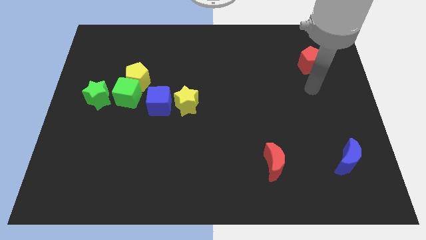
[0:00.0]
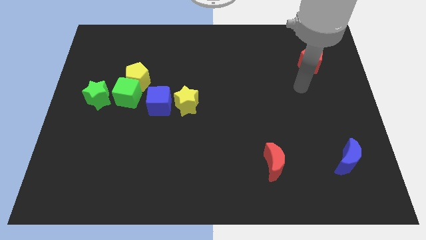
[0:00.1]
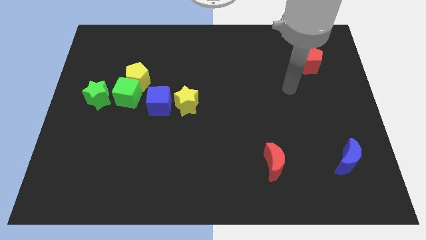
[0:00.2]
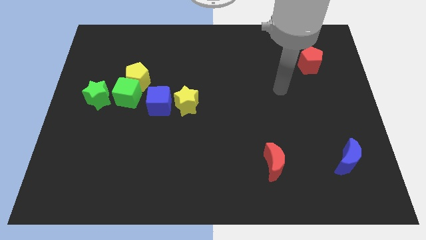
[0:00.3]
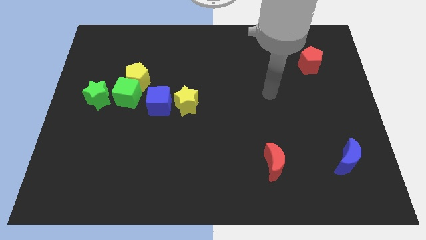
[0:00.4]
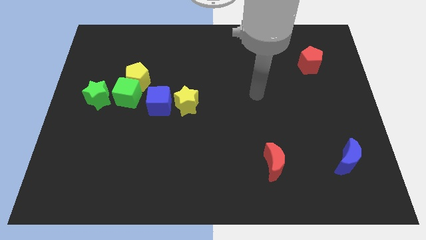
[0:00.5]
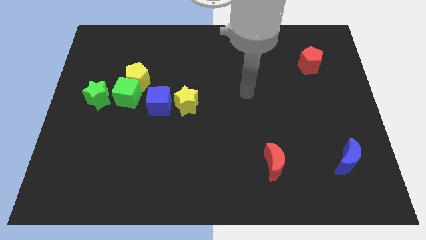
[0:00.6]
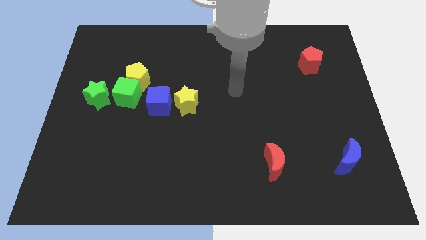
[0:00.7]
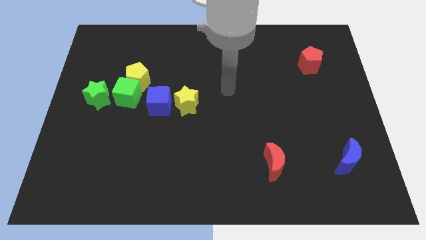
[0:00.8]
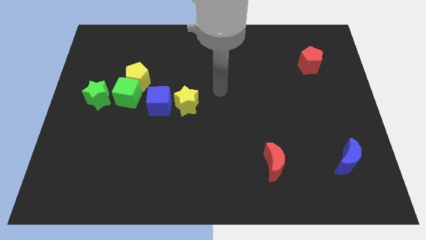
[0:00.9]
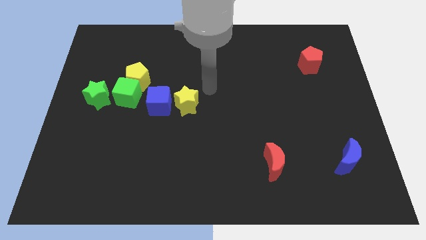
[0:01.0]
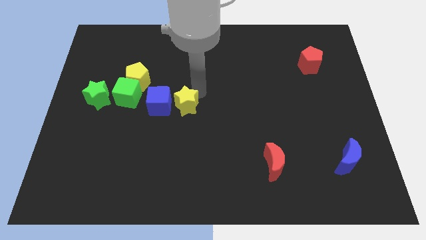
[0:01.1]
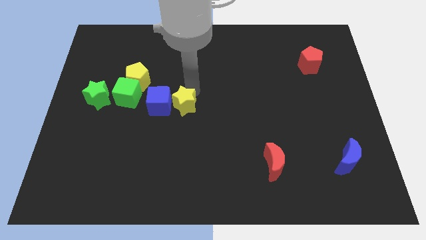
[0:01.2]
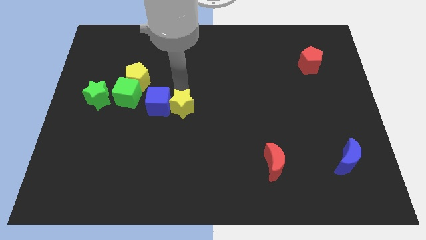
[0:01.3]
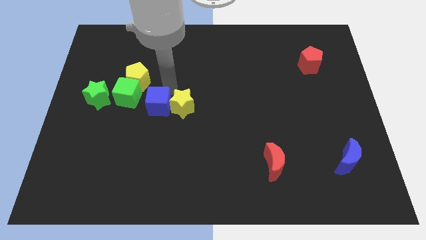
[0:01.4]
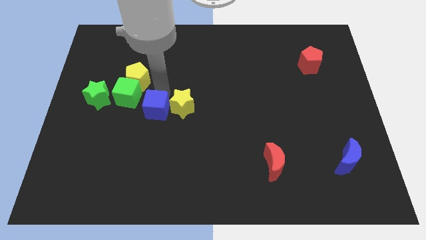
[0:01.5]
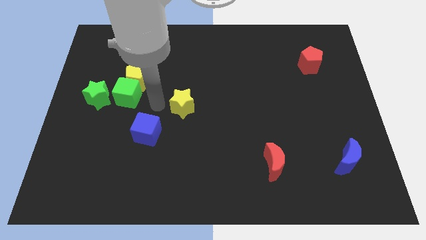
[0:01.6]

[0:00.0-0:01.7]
move the yellow star away from the blue cube

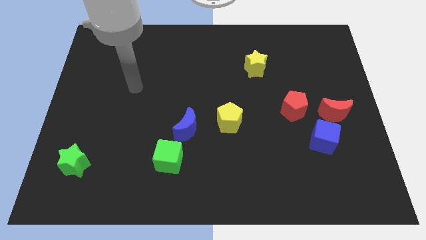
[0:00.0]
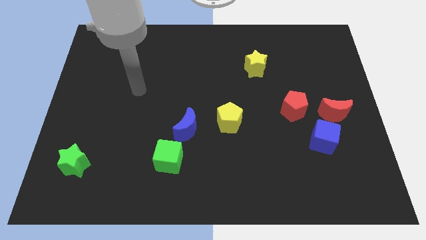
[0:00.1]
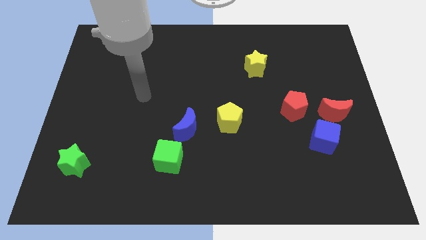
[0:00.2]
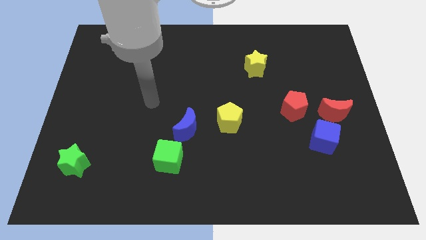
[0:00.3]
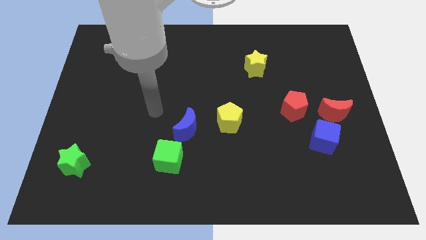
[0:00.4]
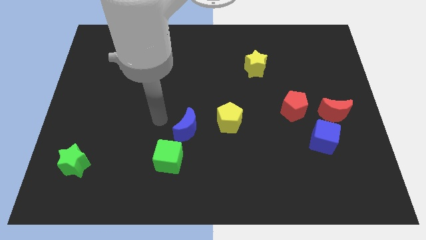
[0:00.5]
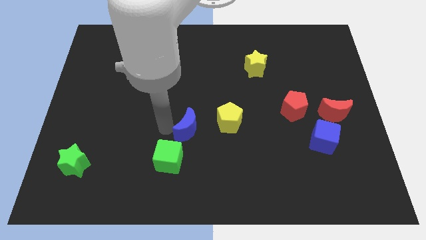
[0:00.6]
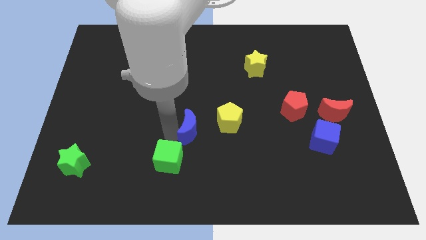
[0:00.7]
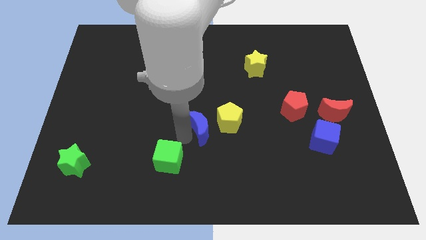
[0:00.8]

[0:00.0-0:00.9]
separate the green cube from the blue moon

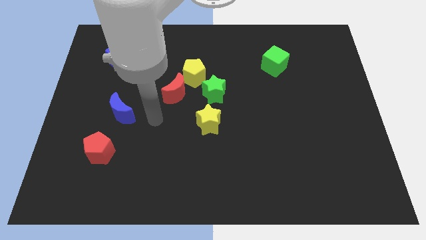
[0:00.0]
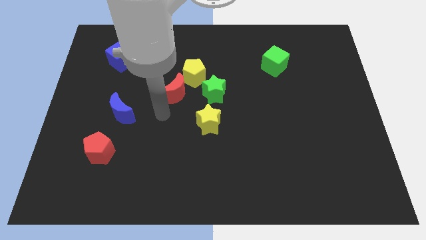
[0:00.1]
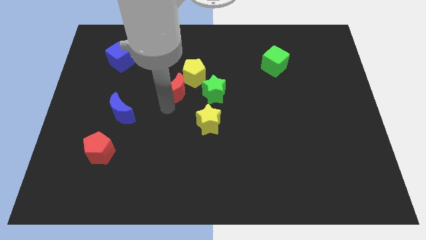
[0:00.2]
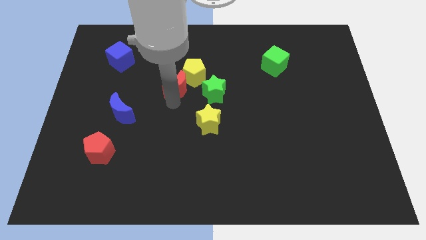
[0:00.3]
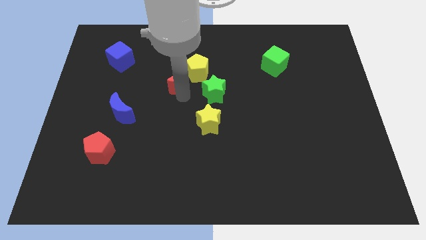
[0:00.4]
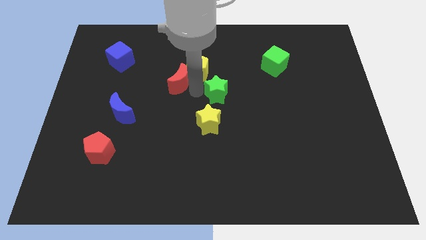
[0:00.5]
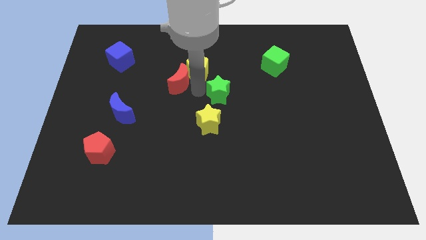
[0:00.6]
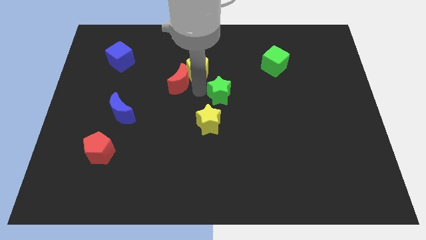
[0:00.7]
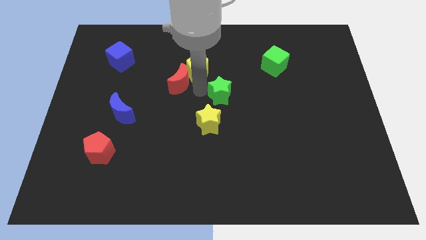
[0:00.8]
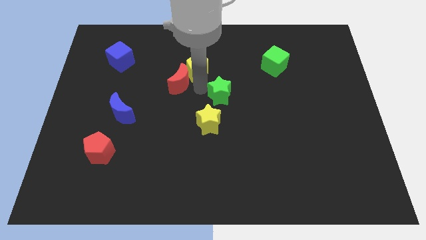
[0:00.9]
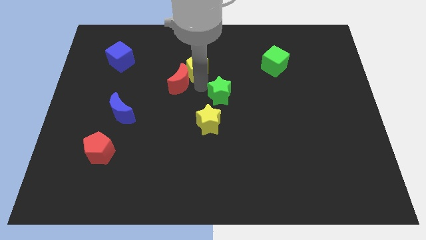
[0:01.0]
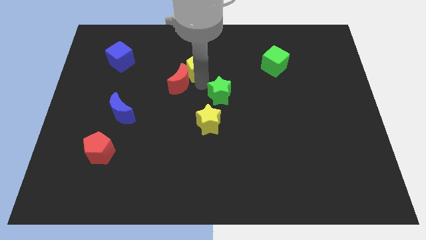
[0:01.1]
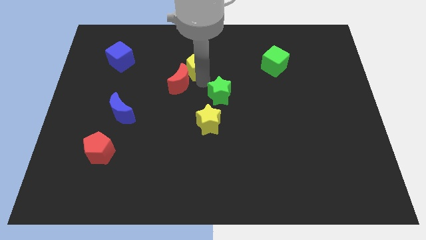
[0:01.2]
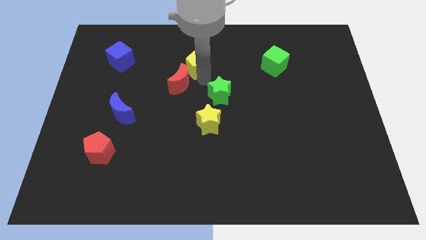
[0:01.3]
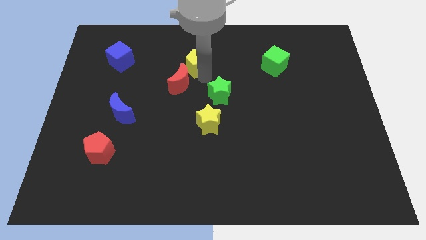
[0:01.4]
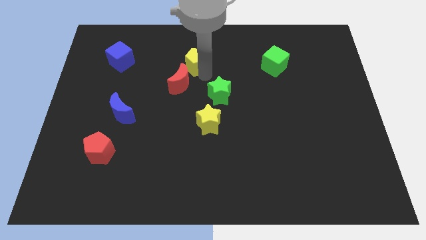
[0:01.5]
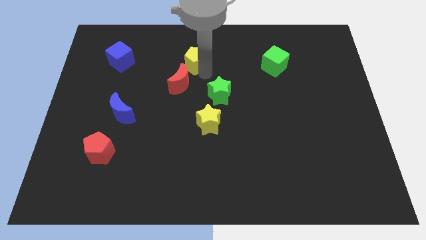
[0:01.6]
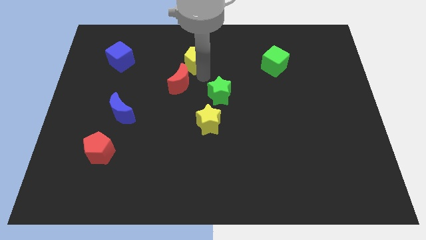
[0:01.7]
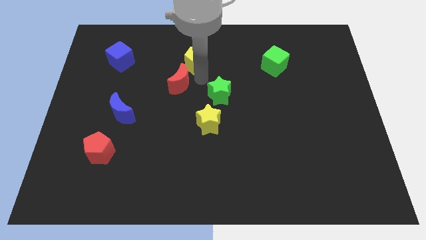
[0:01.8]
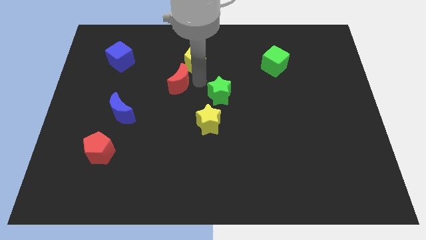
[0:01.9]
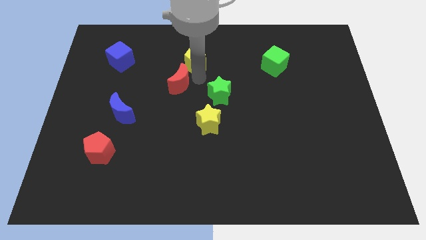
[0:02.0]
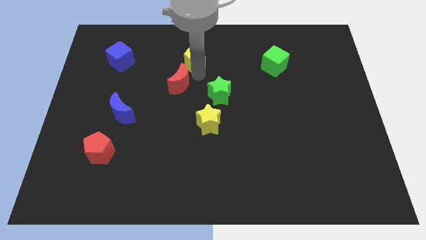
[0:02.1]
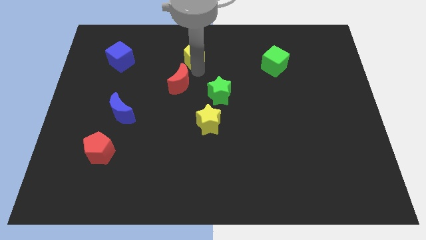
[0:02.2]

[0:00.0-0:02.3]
pull the yellow pentagon apart from the red moon and green star

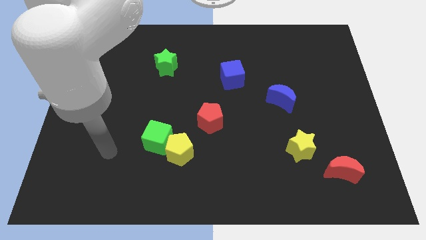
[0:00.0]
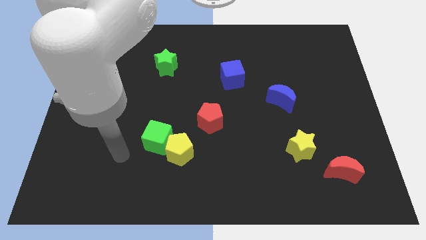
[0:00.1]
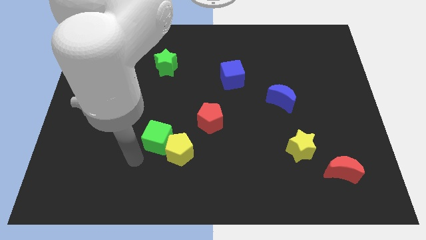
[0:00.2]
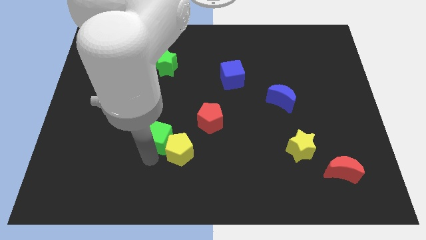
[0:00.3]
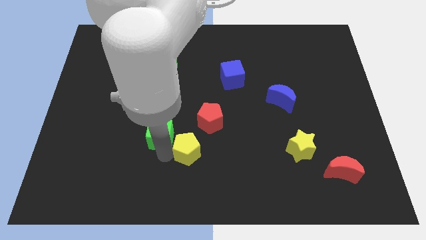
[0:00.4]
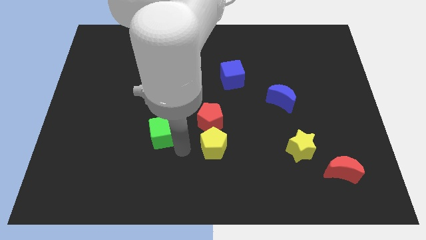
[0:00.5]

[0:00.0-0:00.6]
pull the green cube apart from the yellow pentagon

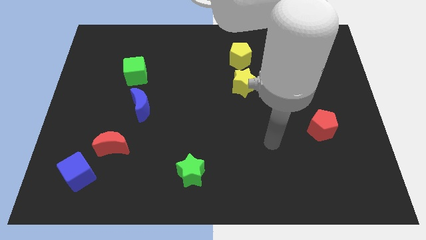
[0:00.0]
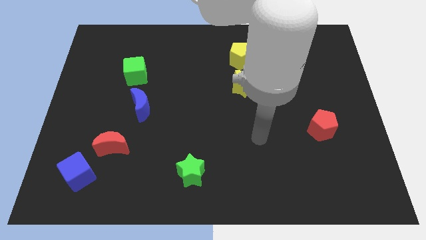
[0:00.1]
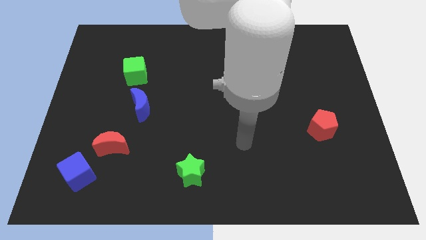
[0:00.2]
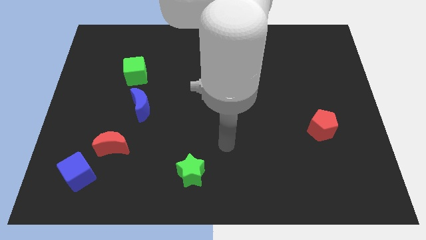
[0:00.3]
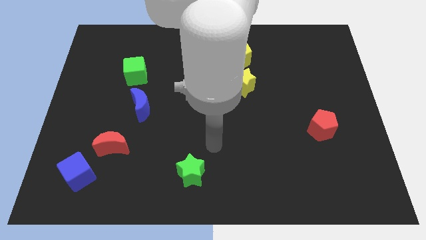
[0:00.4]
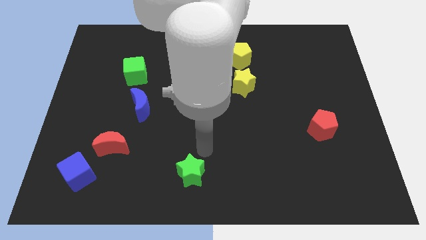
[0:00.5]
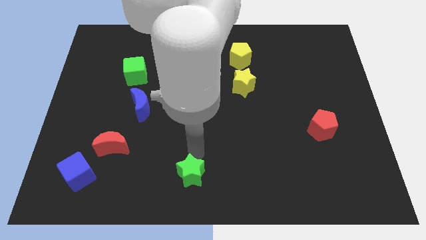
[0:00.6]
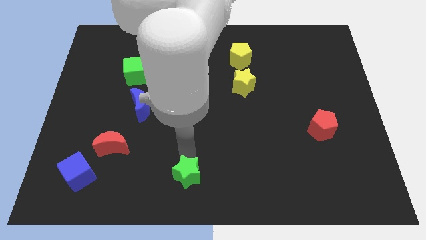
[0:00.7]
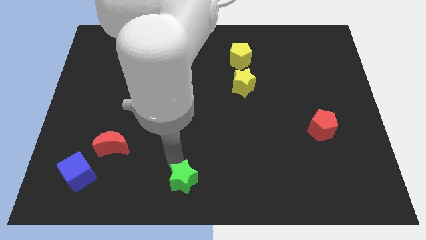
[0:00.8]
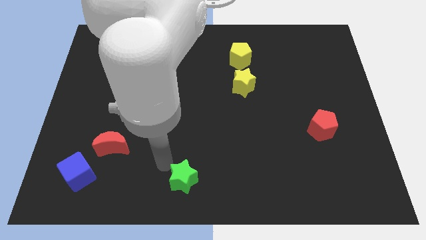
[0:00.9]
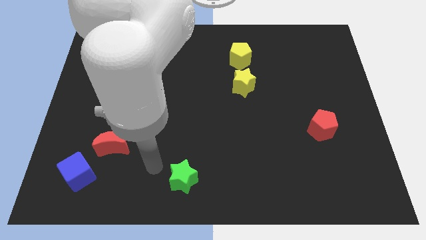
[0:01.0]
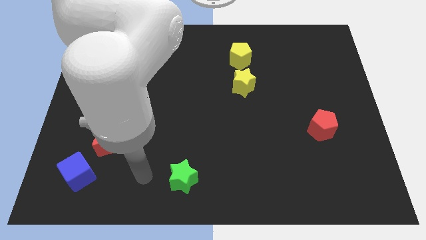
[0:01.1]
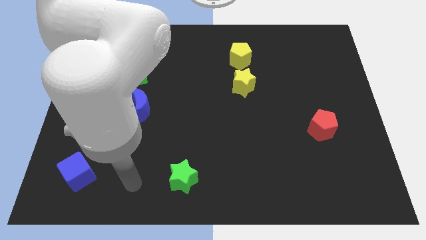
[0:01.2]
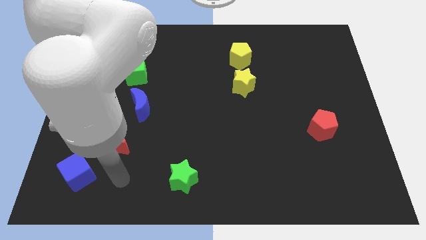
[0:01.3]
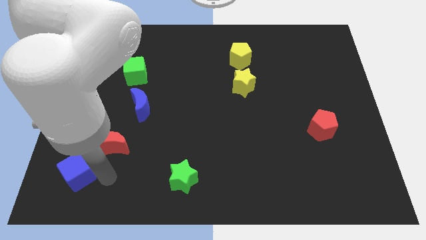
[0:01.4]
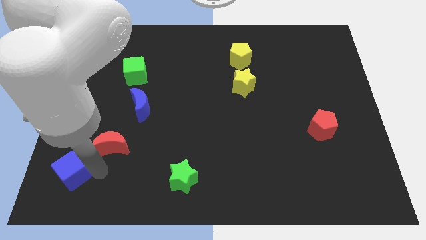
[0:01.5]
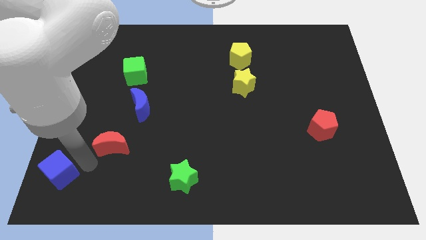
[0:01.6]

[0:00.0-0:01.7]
pull the red moon apart from the blue cube

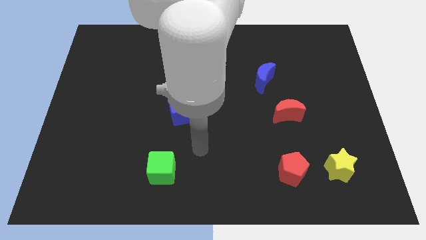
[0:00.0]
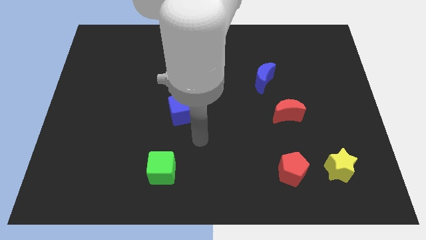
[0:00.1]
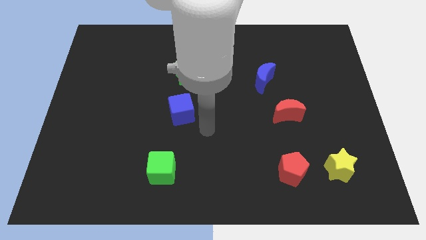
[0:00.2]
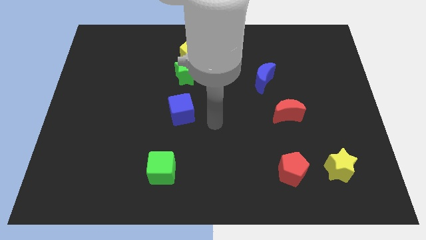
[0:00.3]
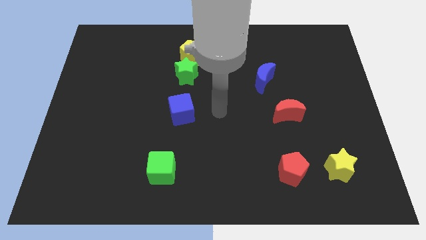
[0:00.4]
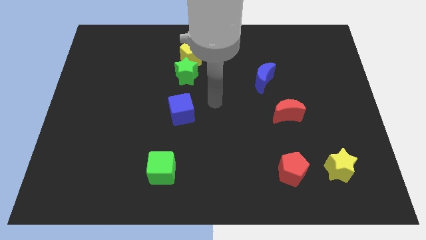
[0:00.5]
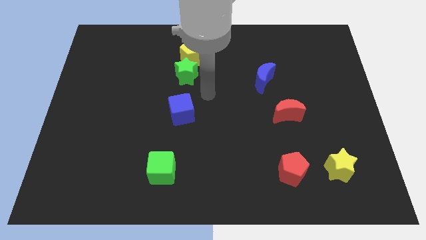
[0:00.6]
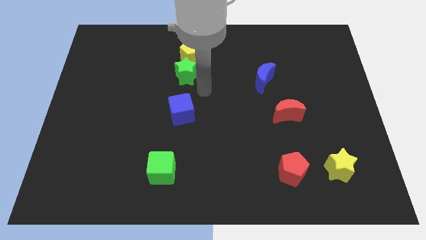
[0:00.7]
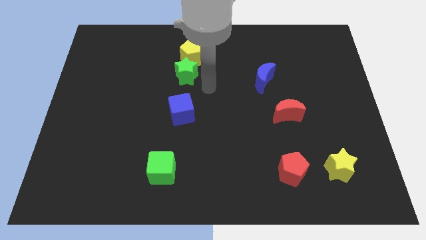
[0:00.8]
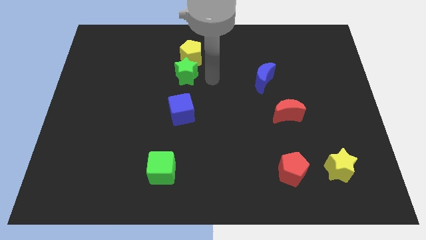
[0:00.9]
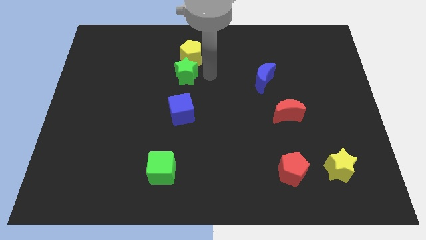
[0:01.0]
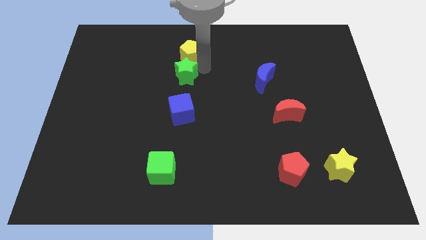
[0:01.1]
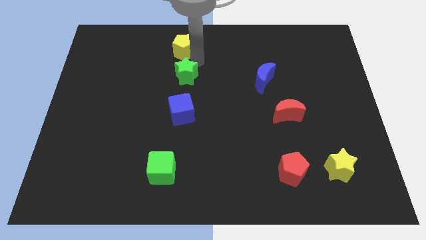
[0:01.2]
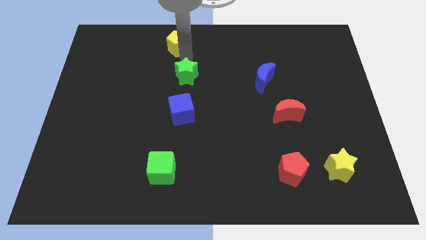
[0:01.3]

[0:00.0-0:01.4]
separate the green star from the yellow pentagon

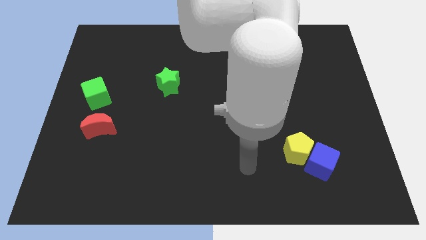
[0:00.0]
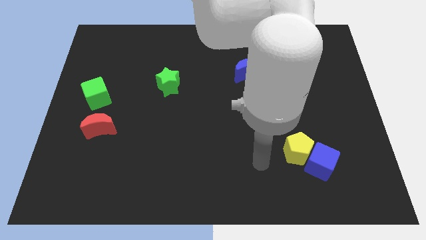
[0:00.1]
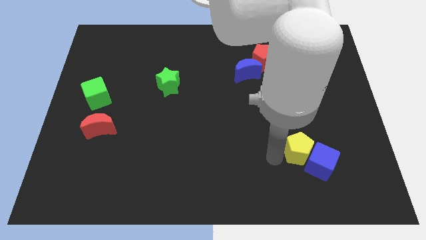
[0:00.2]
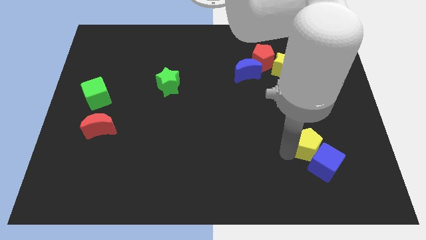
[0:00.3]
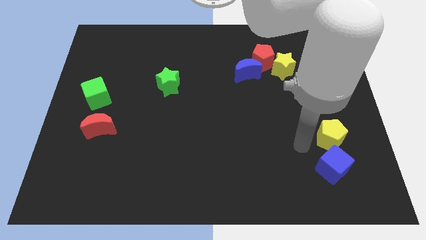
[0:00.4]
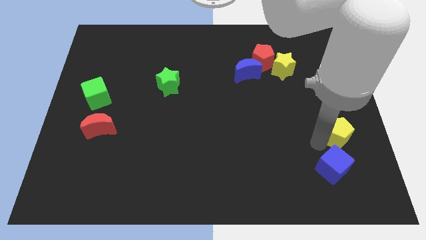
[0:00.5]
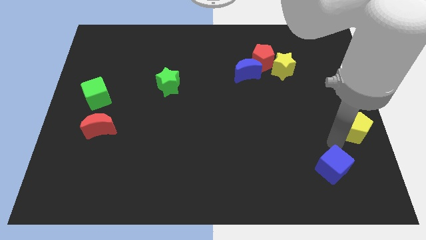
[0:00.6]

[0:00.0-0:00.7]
pull the blue cube apart from the yellow pentagon
